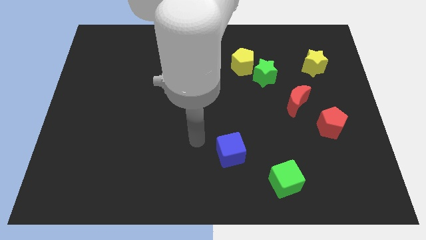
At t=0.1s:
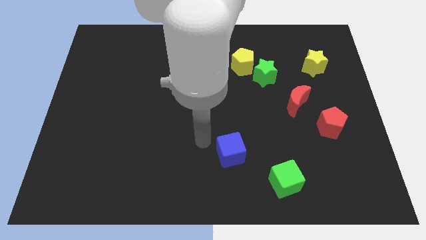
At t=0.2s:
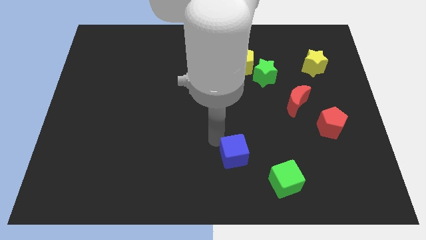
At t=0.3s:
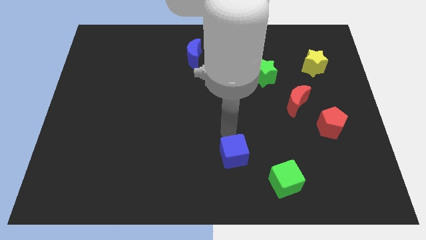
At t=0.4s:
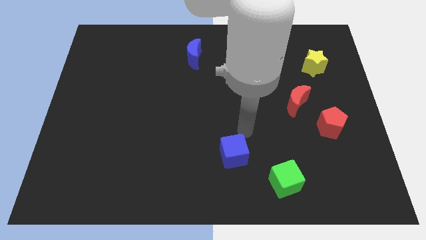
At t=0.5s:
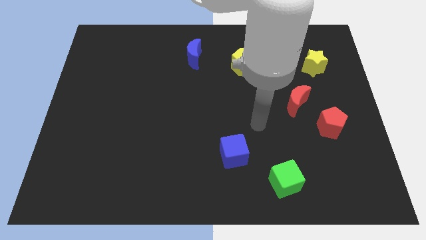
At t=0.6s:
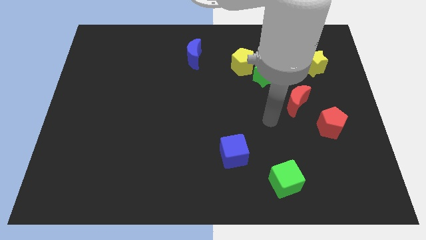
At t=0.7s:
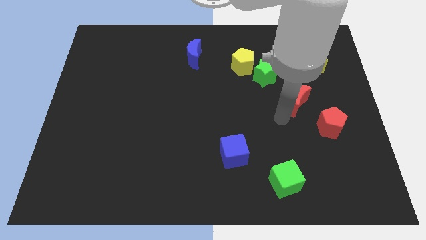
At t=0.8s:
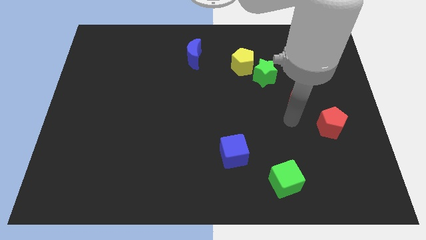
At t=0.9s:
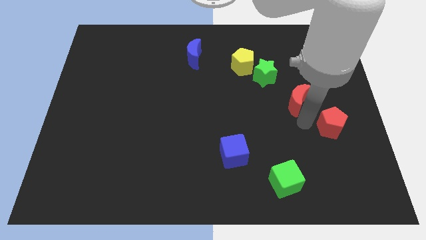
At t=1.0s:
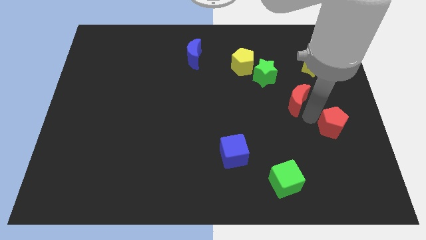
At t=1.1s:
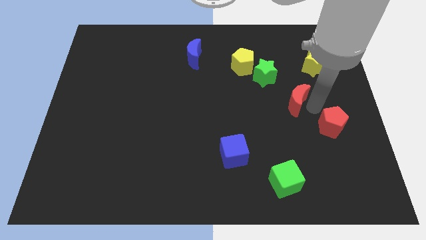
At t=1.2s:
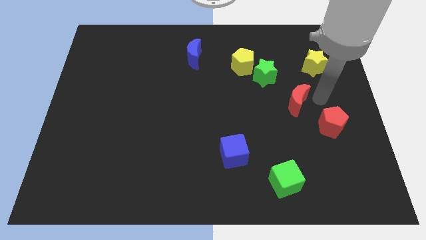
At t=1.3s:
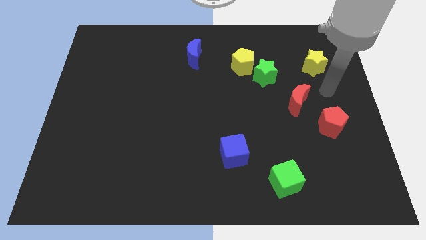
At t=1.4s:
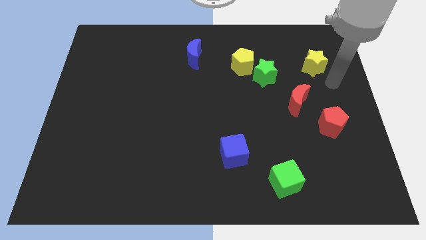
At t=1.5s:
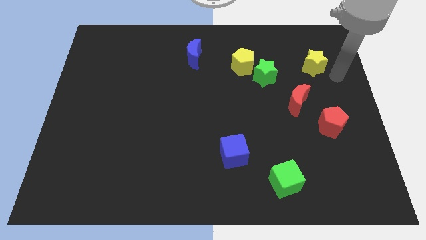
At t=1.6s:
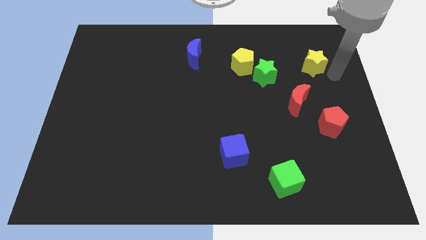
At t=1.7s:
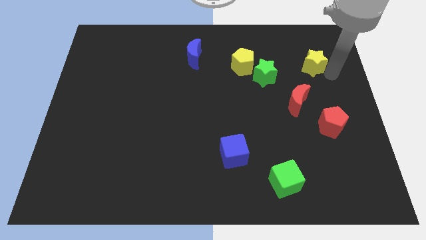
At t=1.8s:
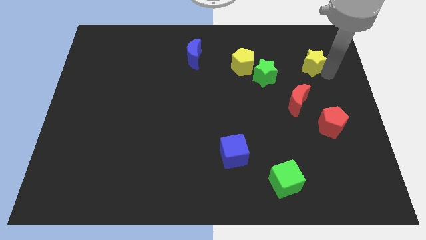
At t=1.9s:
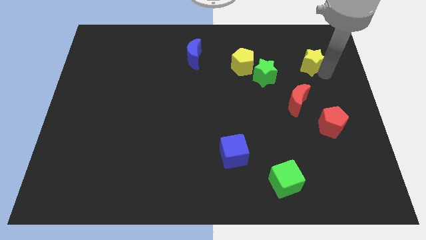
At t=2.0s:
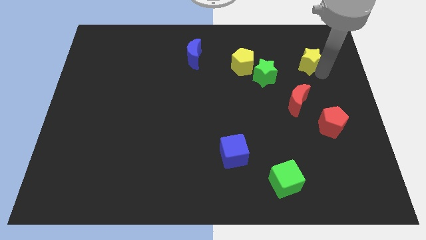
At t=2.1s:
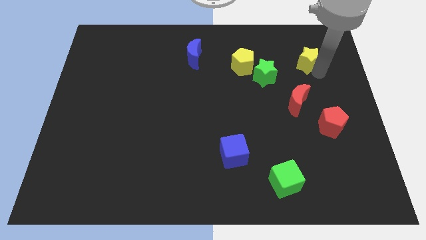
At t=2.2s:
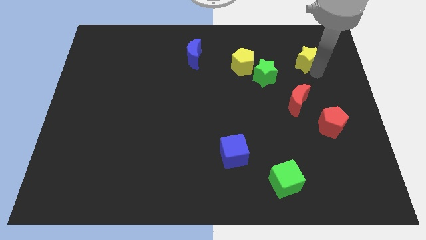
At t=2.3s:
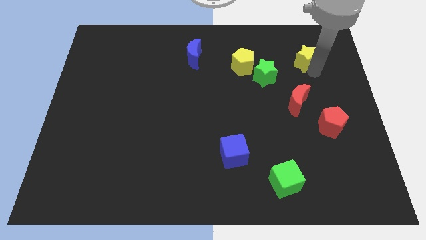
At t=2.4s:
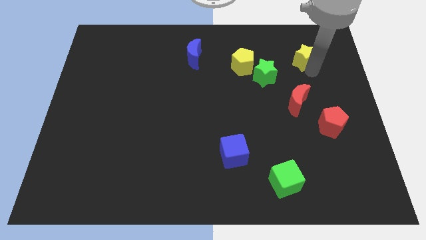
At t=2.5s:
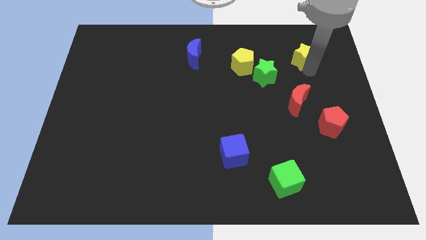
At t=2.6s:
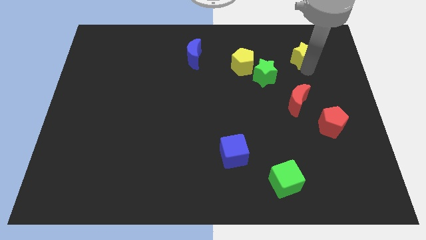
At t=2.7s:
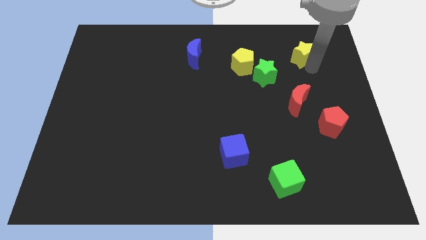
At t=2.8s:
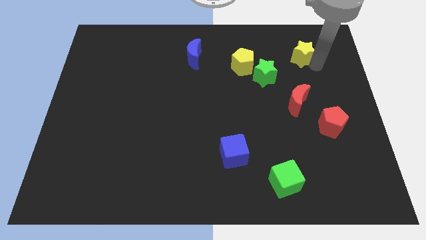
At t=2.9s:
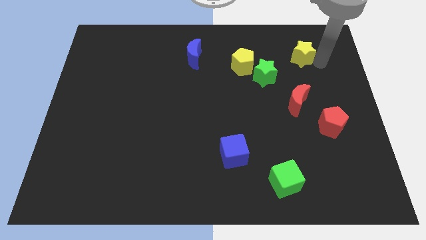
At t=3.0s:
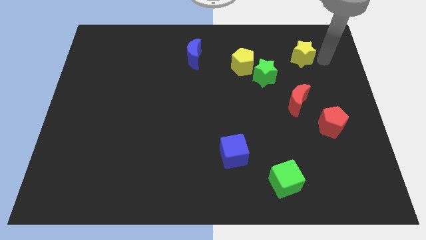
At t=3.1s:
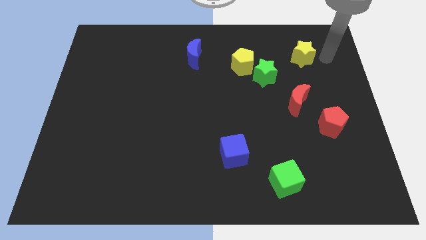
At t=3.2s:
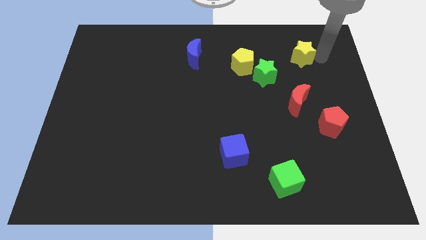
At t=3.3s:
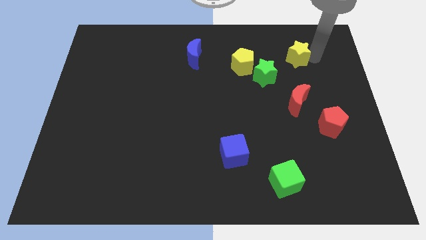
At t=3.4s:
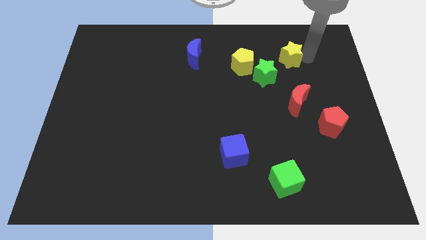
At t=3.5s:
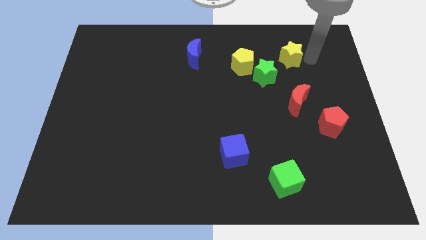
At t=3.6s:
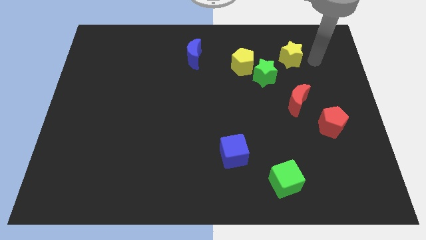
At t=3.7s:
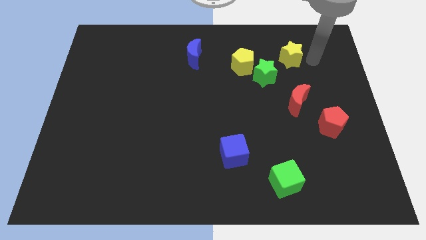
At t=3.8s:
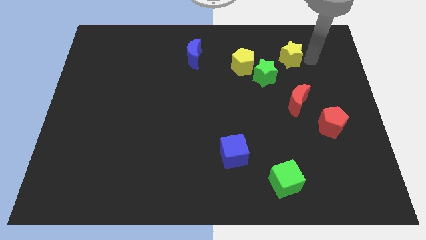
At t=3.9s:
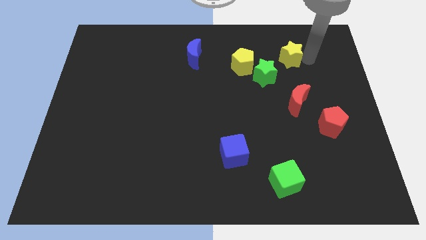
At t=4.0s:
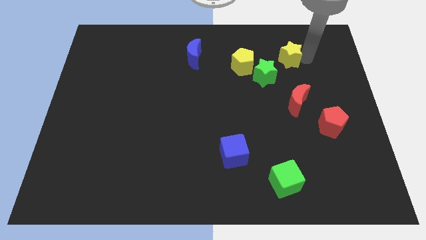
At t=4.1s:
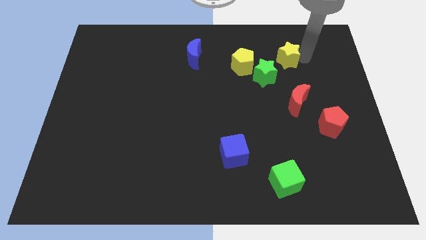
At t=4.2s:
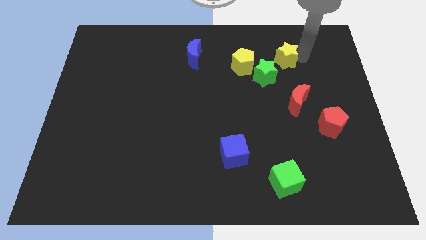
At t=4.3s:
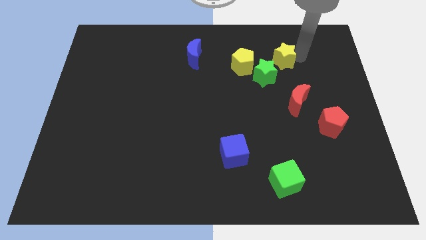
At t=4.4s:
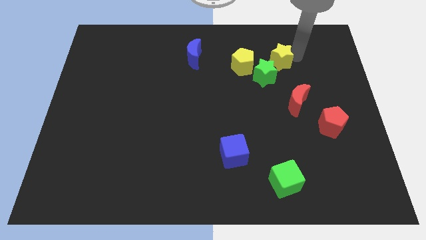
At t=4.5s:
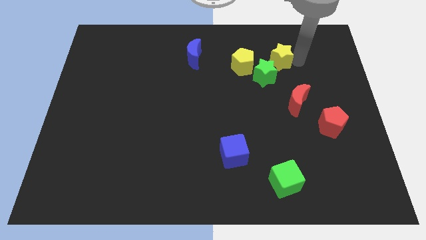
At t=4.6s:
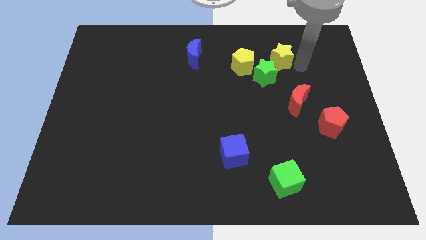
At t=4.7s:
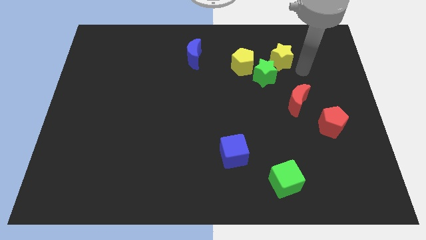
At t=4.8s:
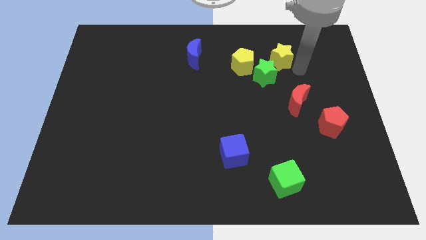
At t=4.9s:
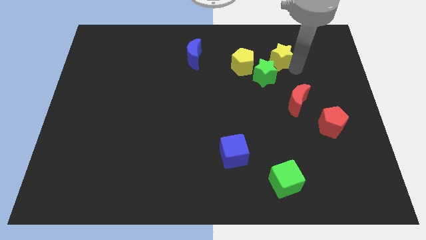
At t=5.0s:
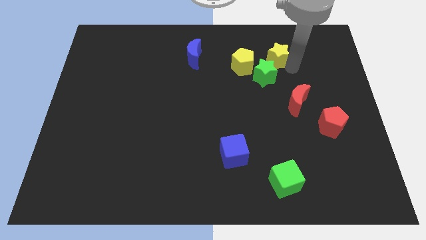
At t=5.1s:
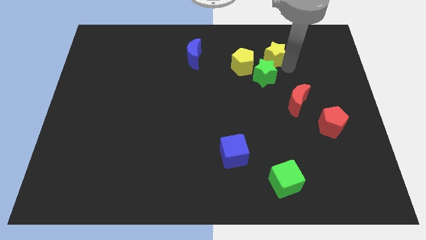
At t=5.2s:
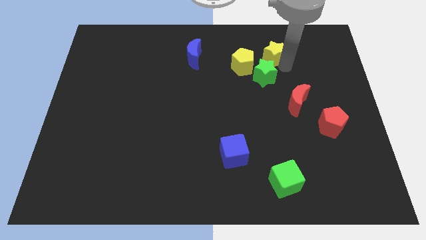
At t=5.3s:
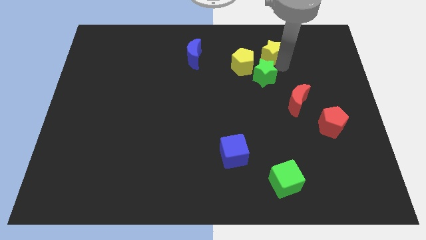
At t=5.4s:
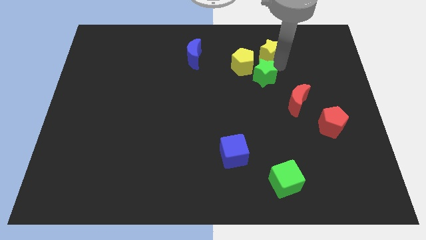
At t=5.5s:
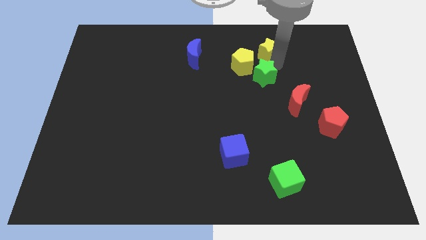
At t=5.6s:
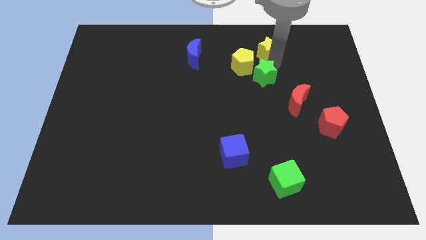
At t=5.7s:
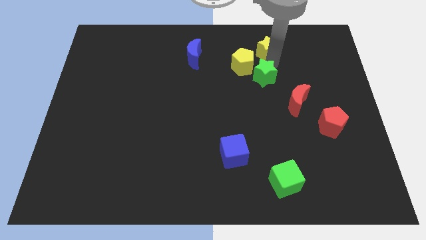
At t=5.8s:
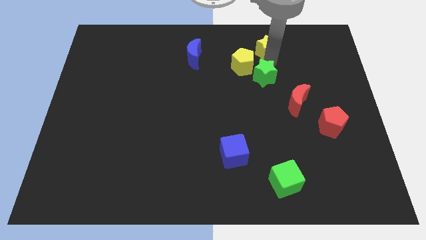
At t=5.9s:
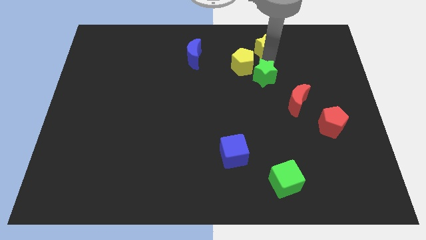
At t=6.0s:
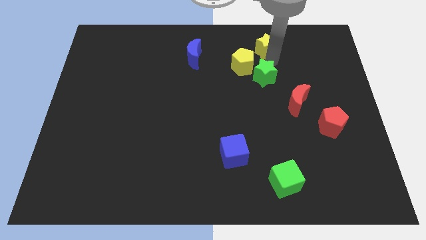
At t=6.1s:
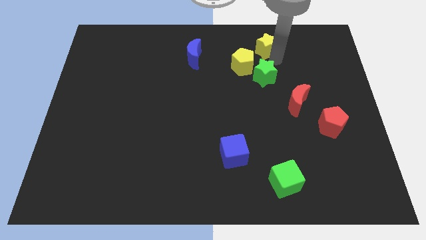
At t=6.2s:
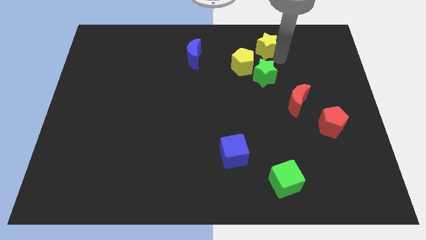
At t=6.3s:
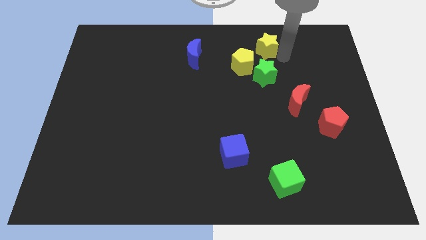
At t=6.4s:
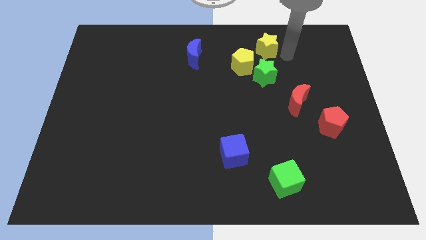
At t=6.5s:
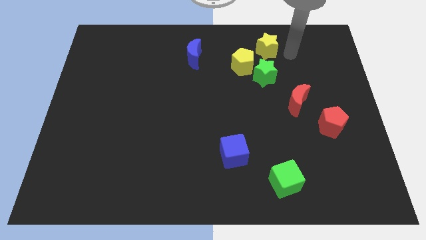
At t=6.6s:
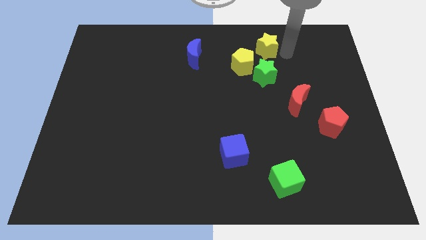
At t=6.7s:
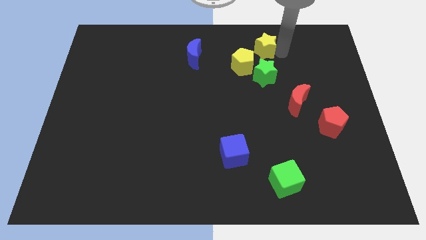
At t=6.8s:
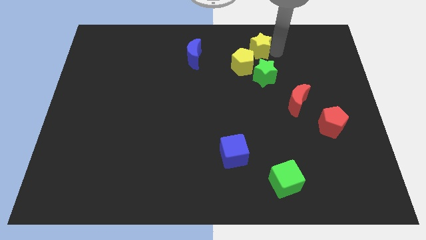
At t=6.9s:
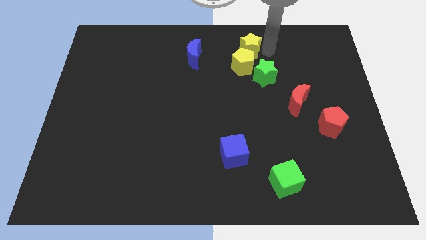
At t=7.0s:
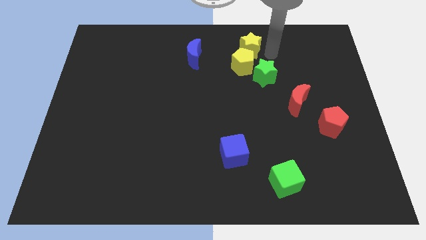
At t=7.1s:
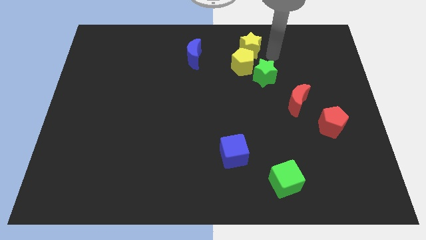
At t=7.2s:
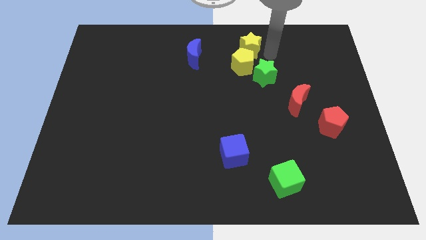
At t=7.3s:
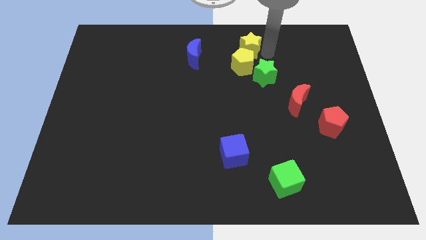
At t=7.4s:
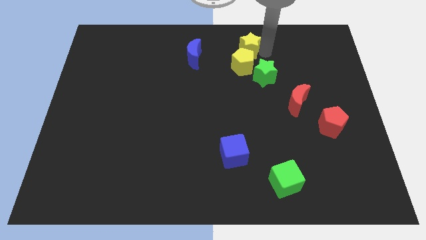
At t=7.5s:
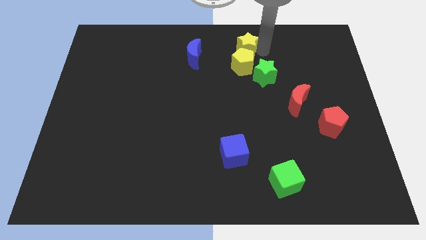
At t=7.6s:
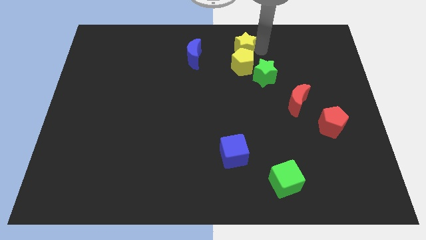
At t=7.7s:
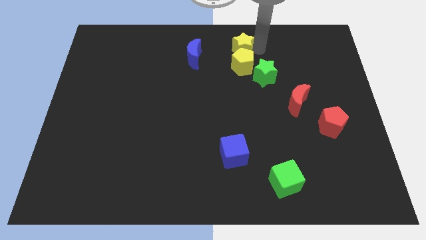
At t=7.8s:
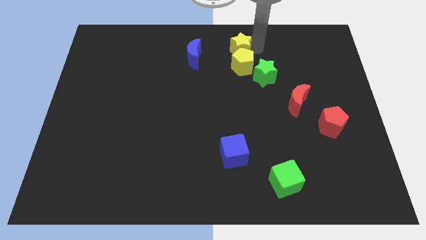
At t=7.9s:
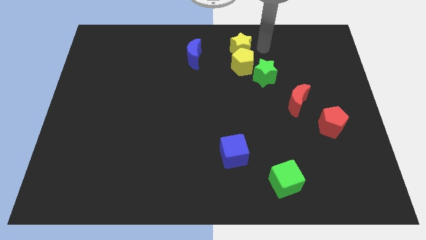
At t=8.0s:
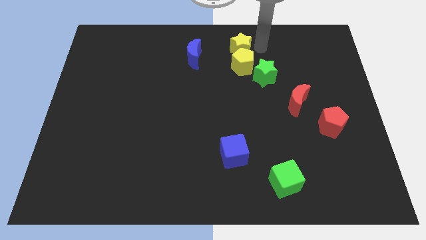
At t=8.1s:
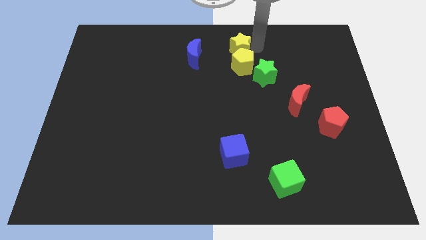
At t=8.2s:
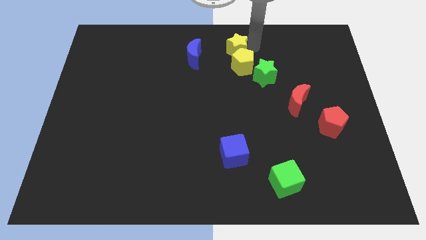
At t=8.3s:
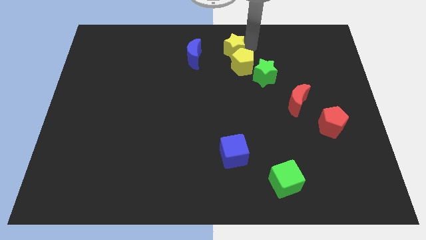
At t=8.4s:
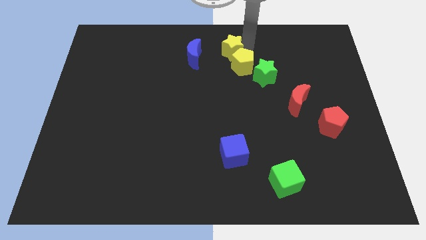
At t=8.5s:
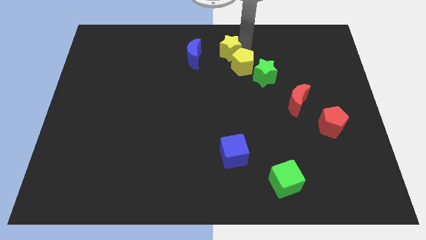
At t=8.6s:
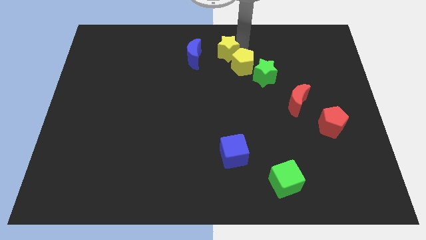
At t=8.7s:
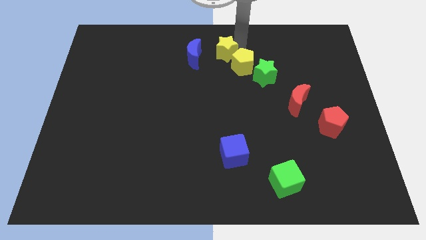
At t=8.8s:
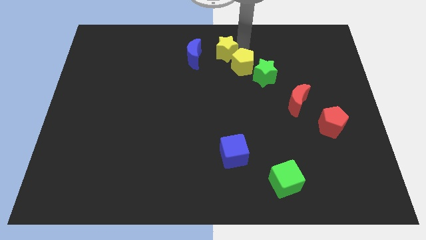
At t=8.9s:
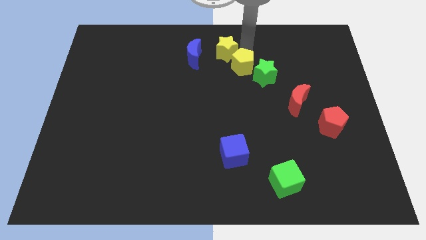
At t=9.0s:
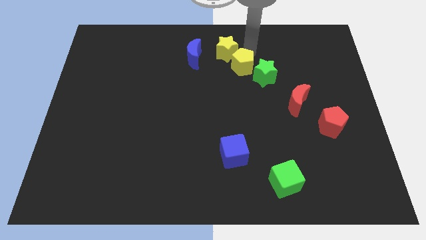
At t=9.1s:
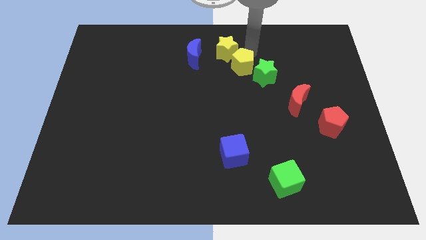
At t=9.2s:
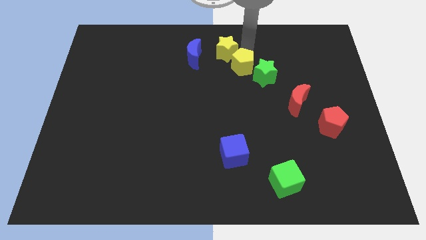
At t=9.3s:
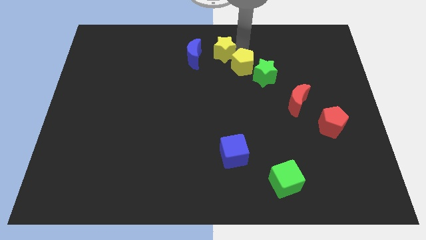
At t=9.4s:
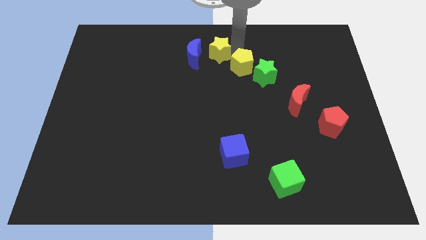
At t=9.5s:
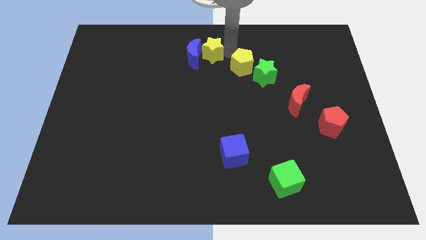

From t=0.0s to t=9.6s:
slide the yellow star towards the blue moon
